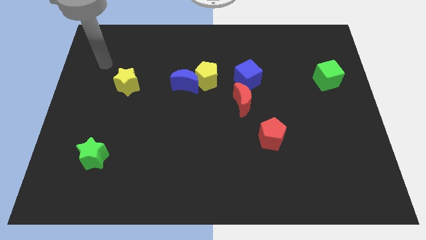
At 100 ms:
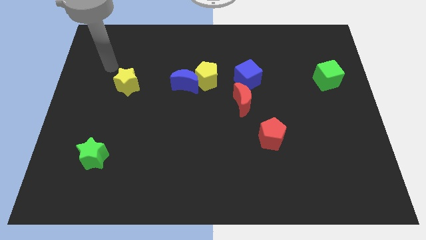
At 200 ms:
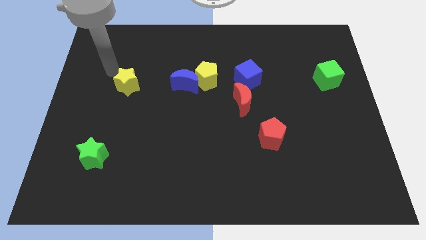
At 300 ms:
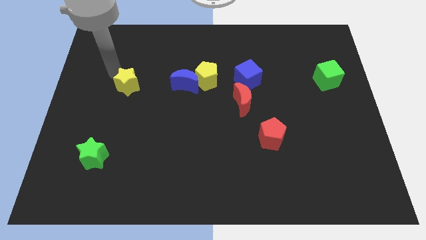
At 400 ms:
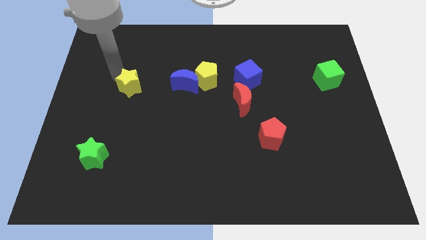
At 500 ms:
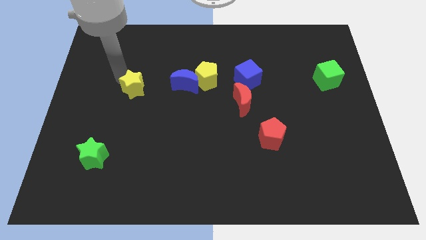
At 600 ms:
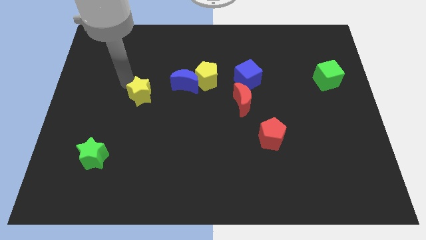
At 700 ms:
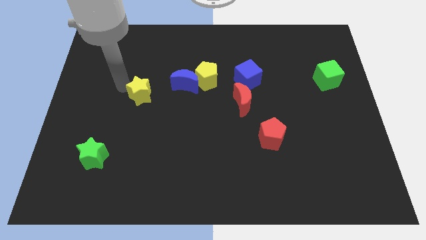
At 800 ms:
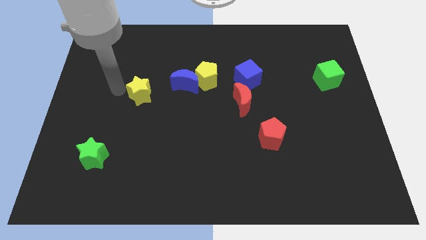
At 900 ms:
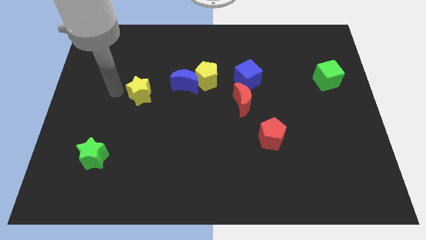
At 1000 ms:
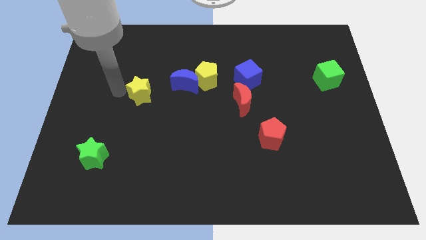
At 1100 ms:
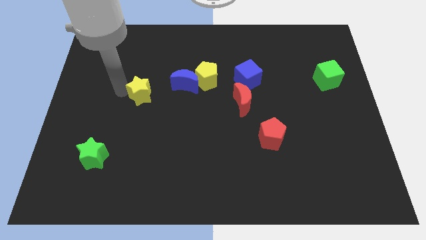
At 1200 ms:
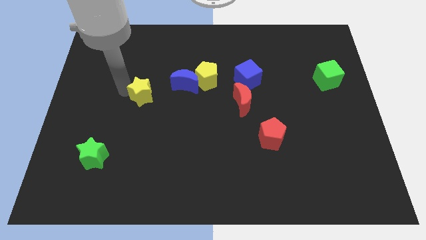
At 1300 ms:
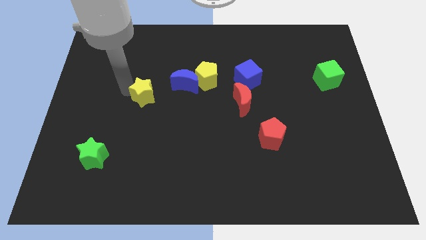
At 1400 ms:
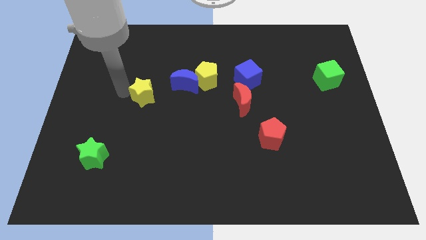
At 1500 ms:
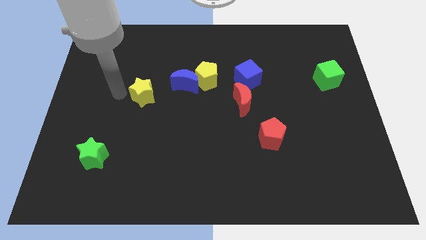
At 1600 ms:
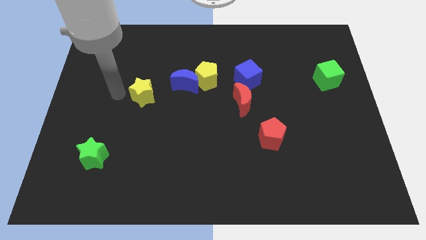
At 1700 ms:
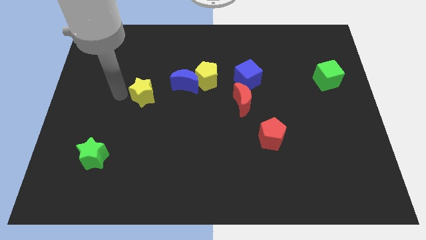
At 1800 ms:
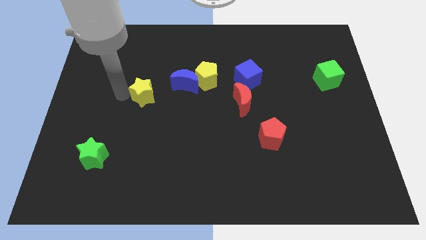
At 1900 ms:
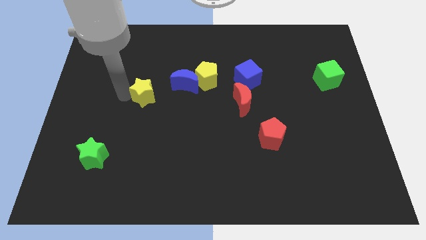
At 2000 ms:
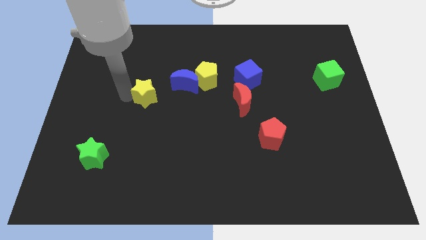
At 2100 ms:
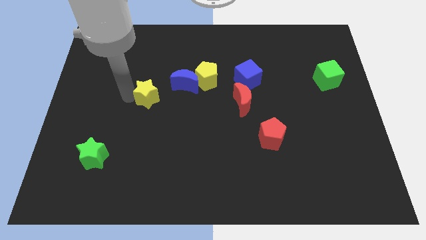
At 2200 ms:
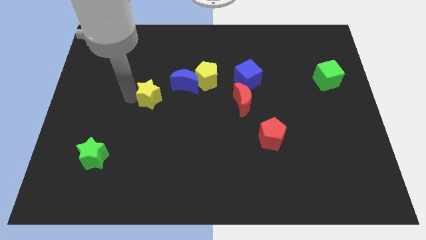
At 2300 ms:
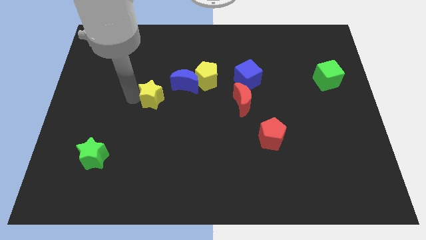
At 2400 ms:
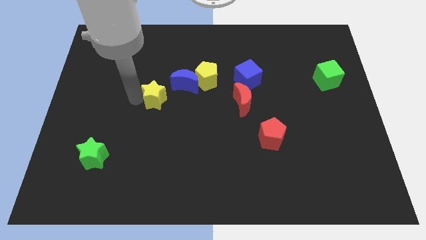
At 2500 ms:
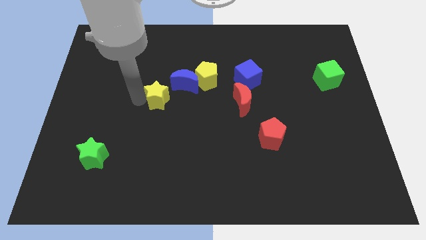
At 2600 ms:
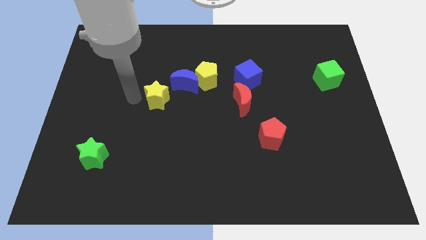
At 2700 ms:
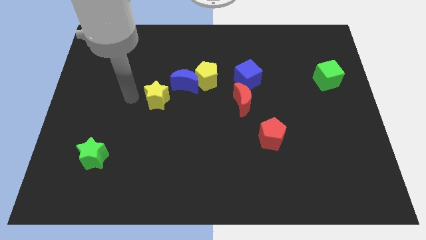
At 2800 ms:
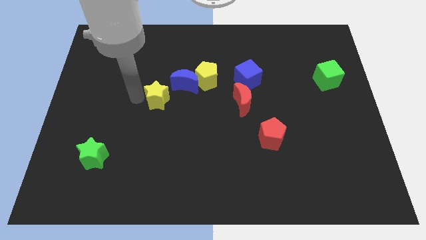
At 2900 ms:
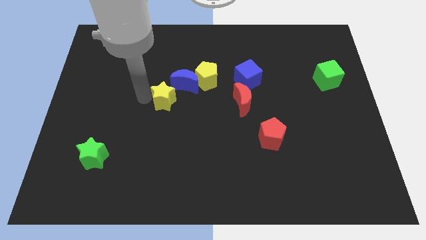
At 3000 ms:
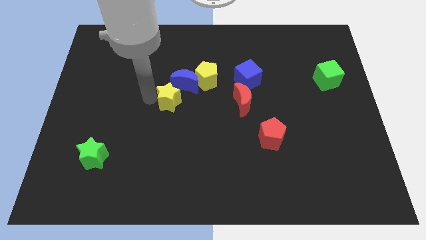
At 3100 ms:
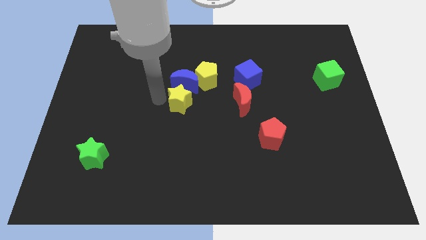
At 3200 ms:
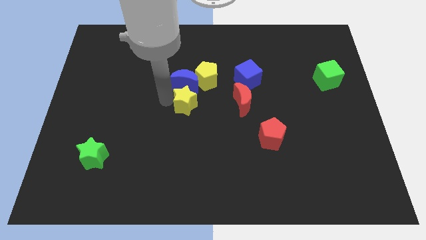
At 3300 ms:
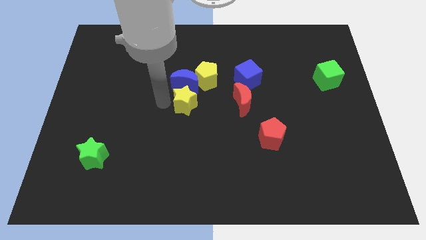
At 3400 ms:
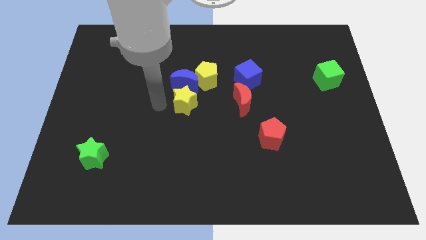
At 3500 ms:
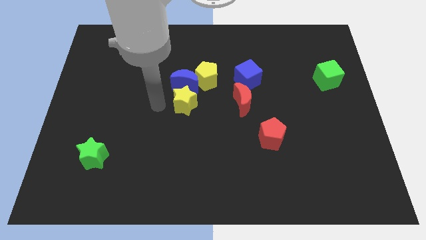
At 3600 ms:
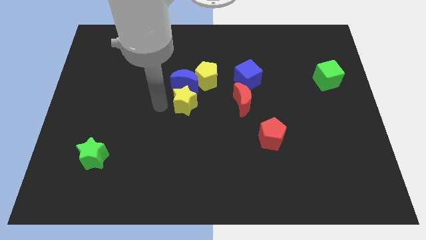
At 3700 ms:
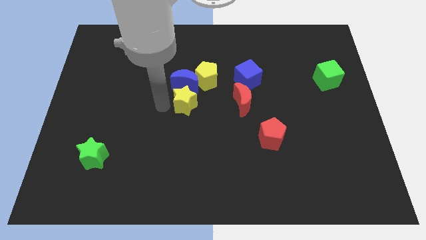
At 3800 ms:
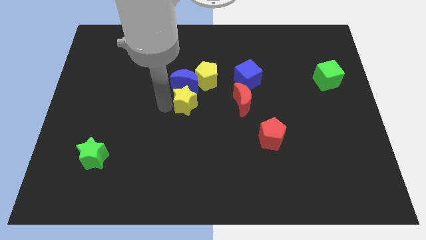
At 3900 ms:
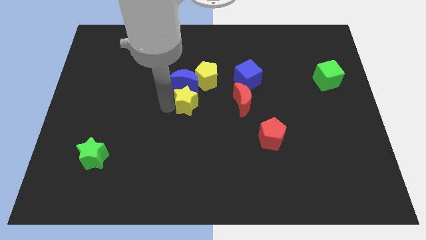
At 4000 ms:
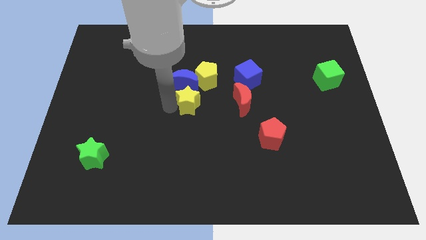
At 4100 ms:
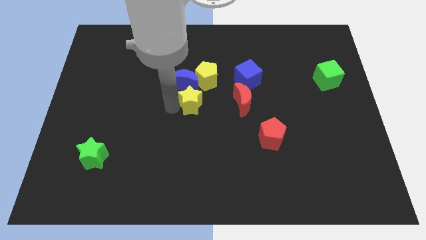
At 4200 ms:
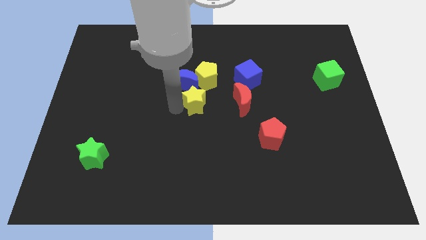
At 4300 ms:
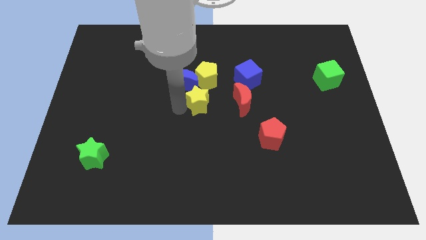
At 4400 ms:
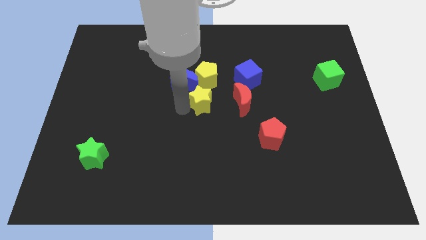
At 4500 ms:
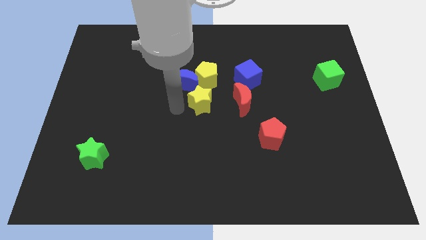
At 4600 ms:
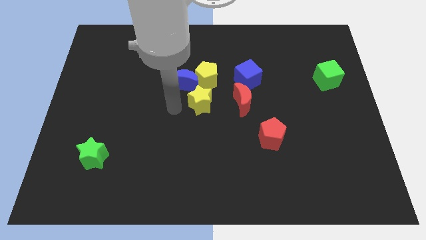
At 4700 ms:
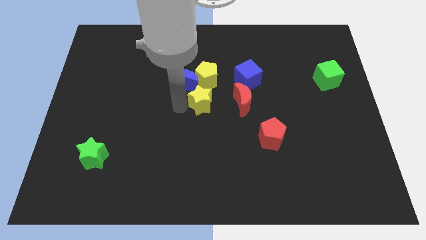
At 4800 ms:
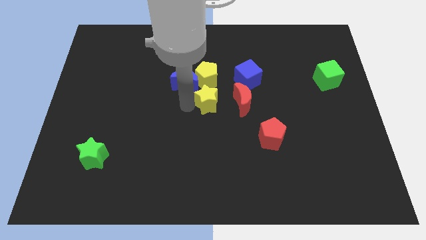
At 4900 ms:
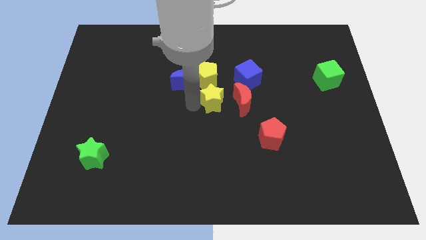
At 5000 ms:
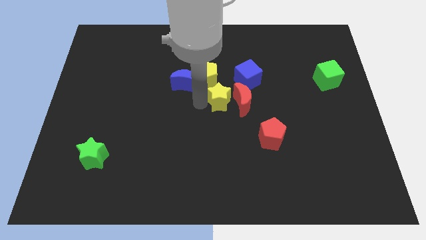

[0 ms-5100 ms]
push the yellow star next to the red moon
